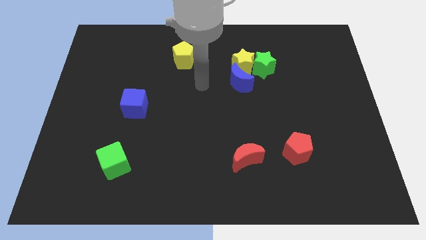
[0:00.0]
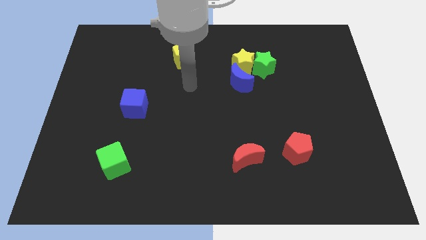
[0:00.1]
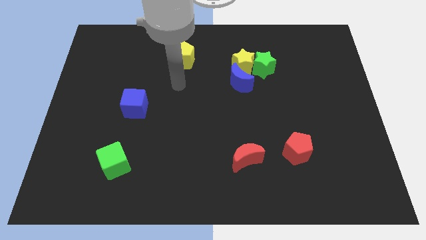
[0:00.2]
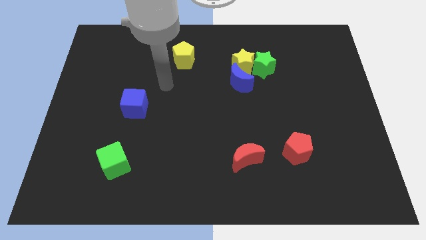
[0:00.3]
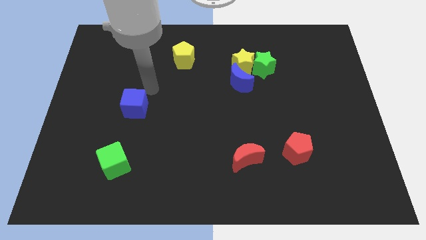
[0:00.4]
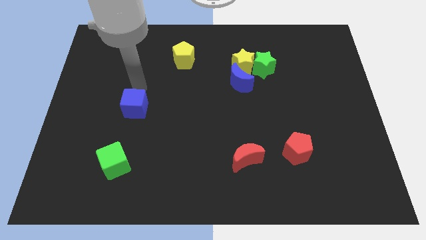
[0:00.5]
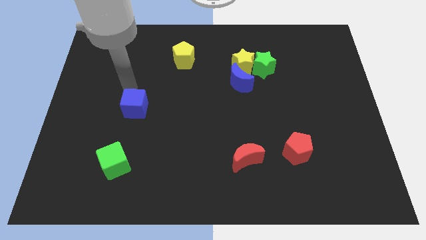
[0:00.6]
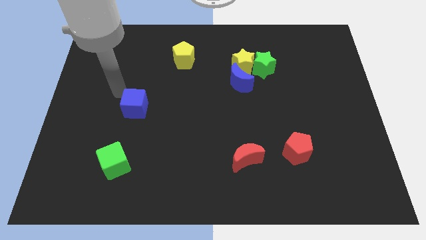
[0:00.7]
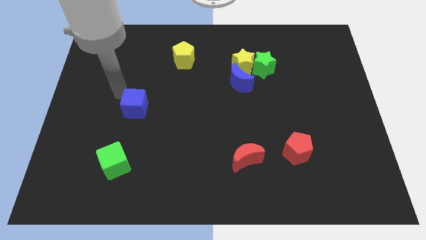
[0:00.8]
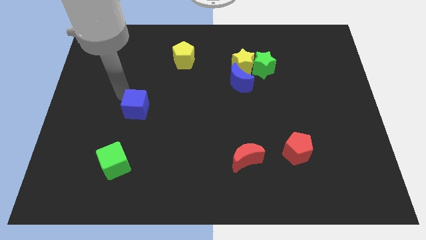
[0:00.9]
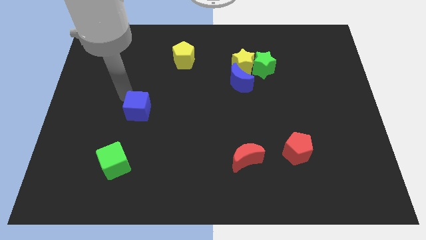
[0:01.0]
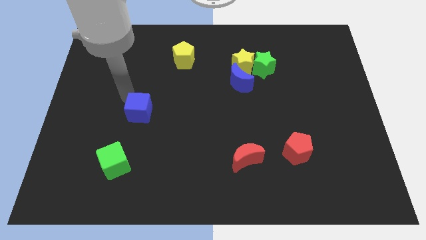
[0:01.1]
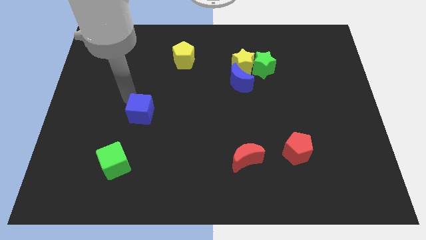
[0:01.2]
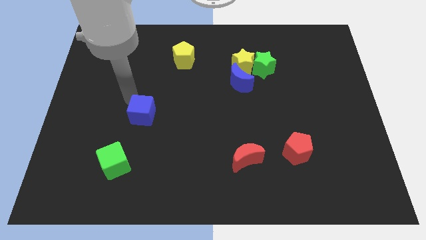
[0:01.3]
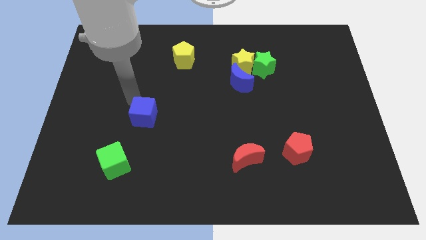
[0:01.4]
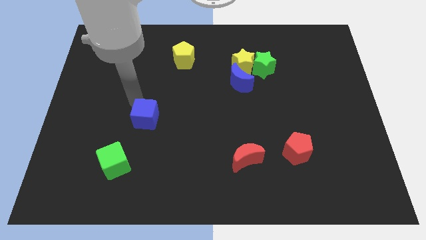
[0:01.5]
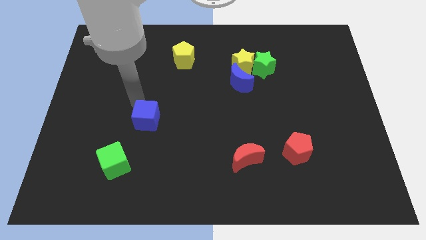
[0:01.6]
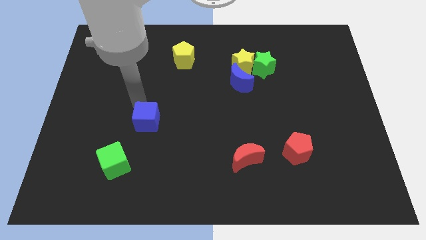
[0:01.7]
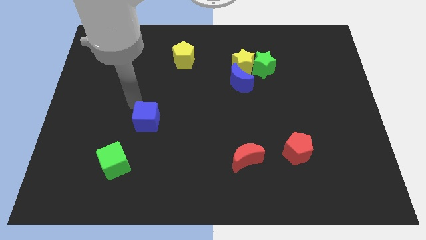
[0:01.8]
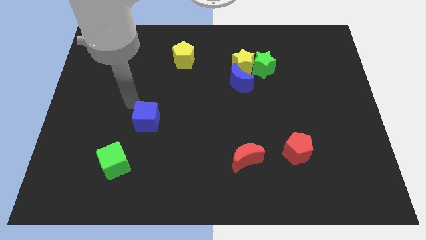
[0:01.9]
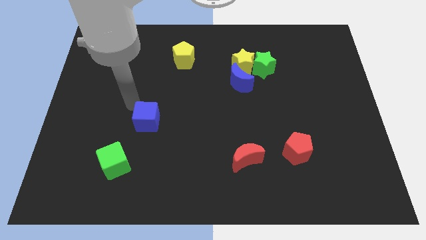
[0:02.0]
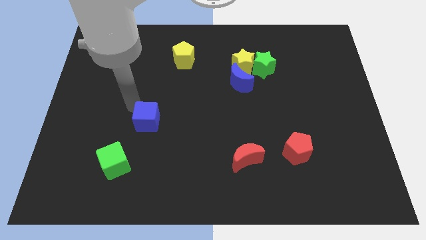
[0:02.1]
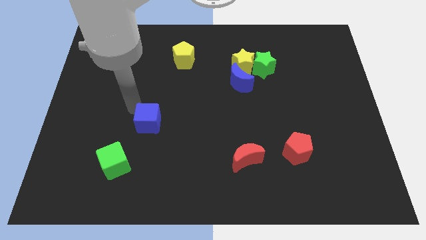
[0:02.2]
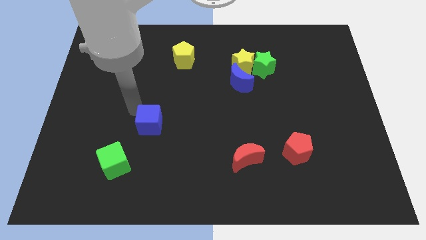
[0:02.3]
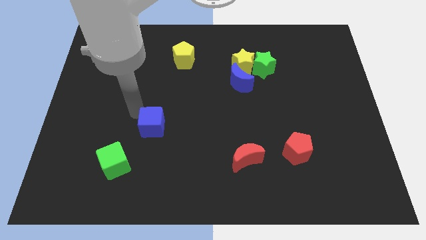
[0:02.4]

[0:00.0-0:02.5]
push the blue cube a bit downwards and right

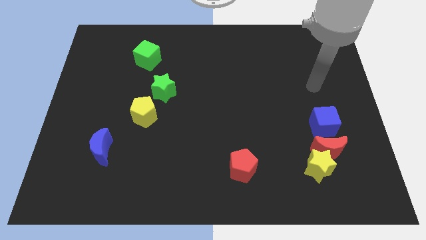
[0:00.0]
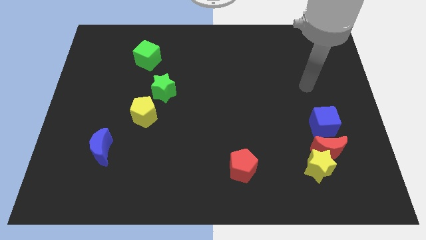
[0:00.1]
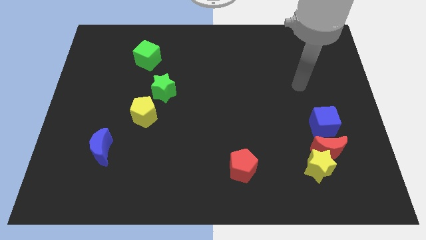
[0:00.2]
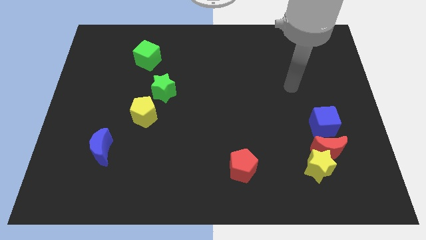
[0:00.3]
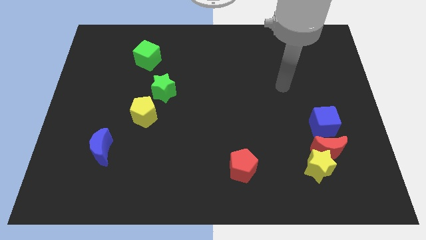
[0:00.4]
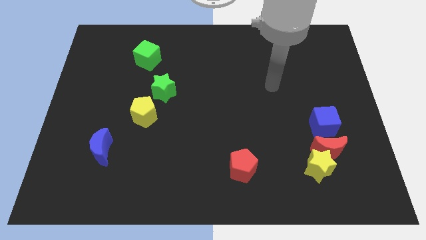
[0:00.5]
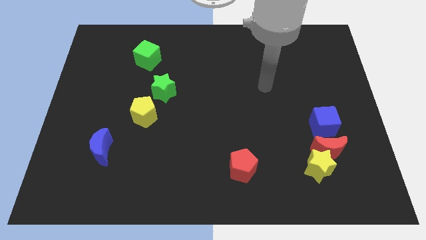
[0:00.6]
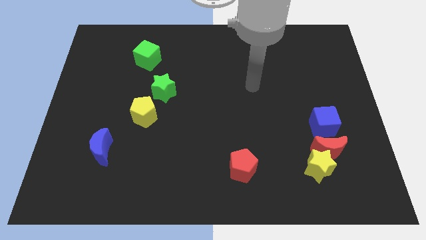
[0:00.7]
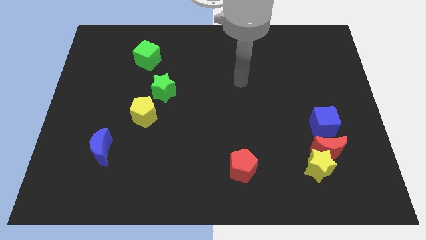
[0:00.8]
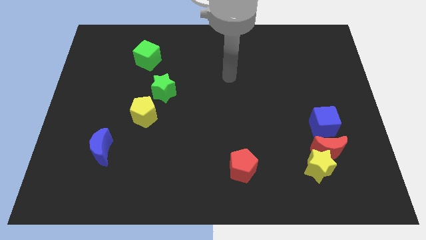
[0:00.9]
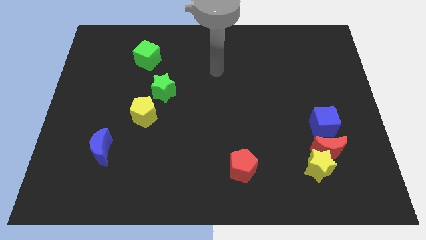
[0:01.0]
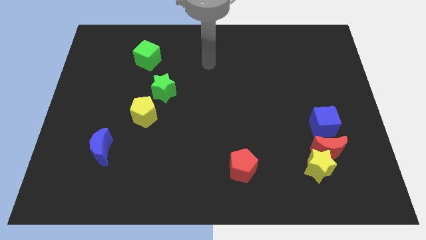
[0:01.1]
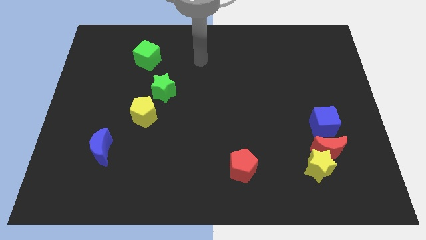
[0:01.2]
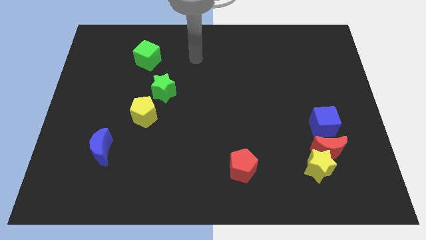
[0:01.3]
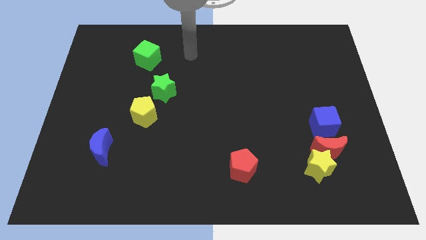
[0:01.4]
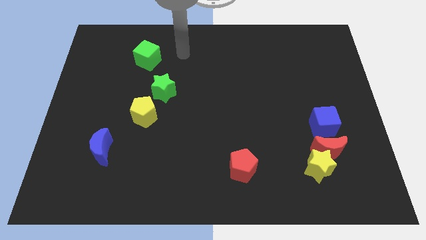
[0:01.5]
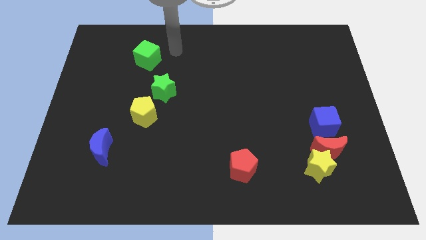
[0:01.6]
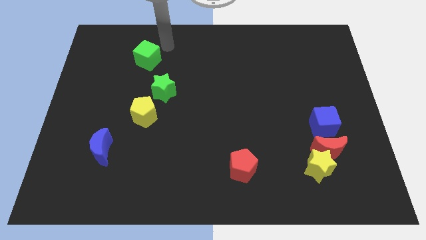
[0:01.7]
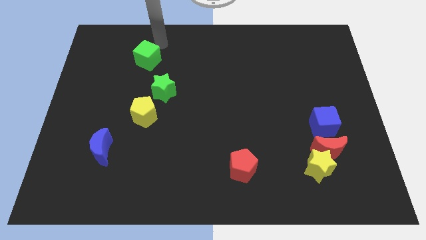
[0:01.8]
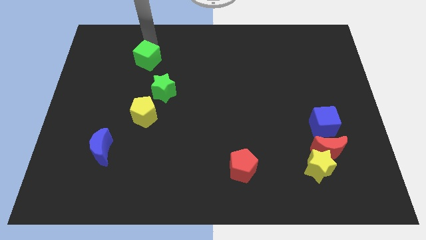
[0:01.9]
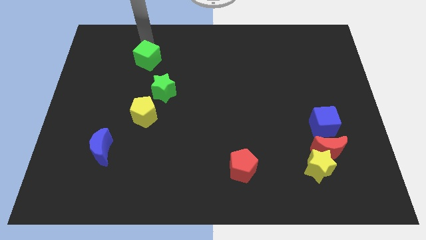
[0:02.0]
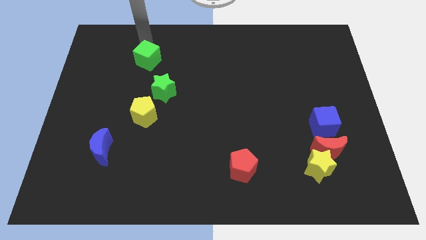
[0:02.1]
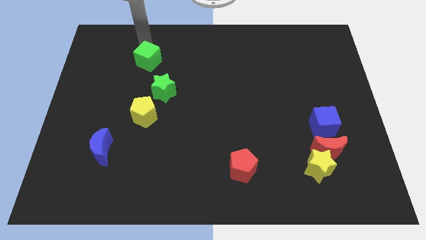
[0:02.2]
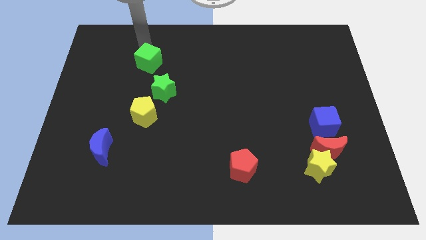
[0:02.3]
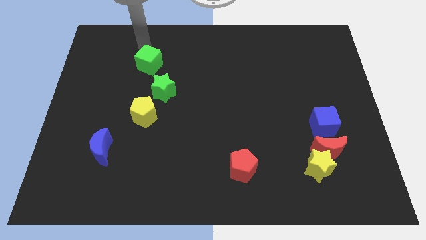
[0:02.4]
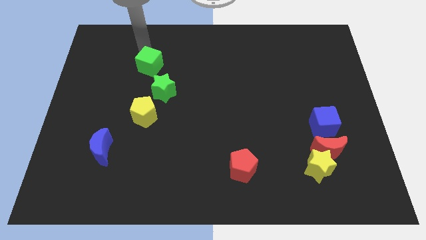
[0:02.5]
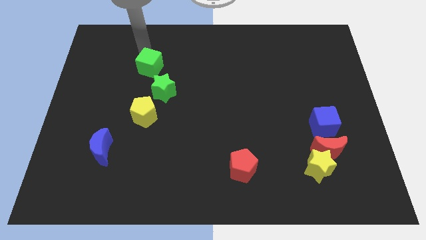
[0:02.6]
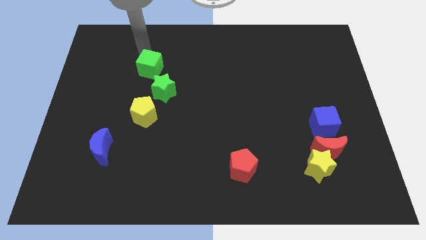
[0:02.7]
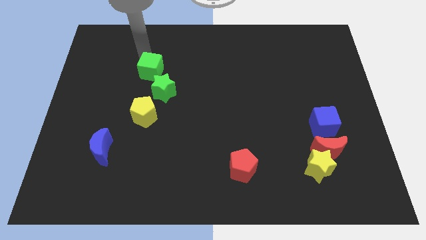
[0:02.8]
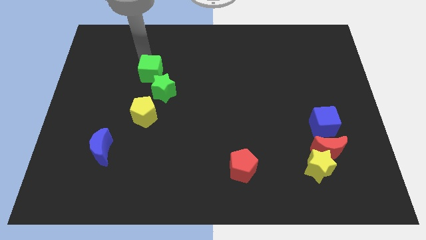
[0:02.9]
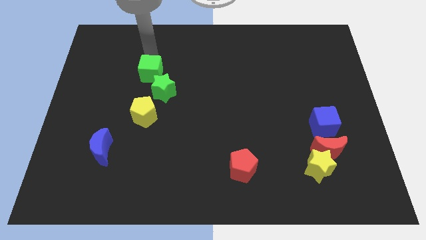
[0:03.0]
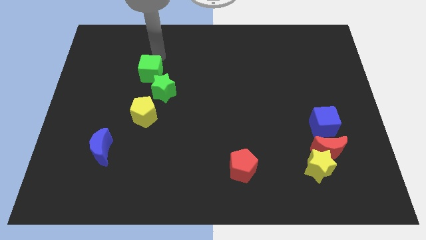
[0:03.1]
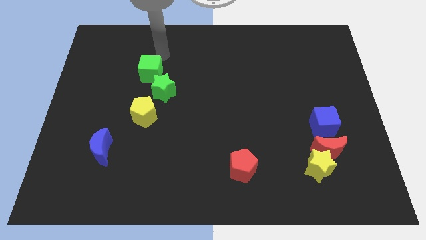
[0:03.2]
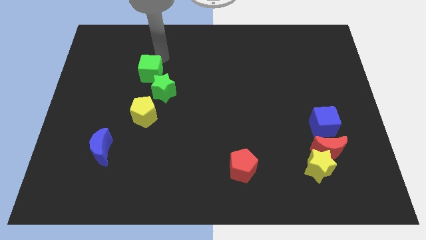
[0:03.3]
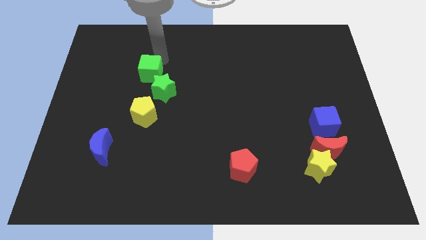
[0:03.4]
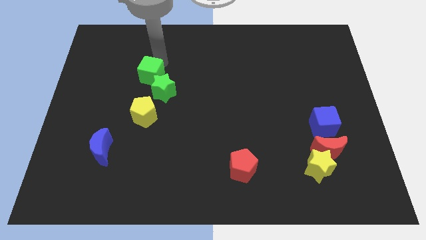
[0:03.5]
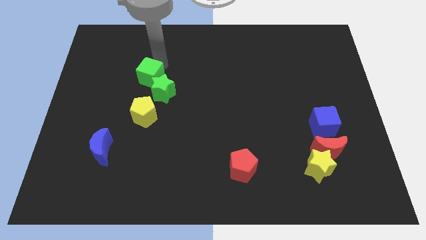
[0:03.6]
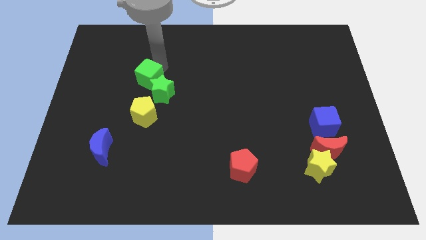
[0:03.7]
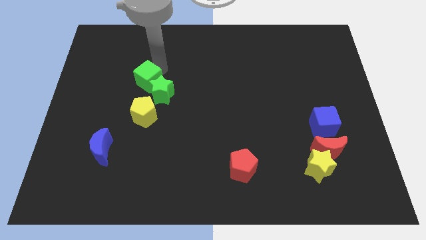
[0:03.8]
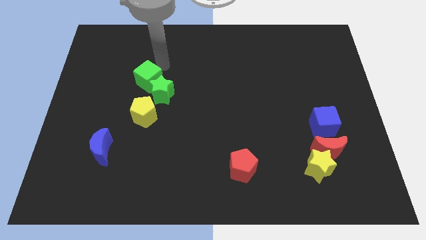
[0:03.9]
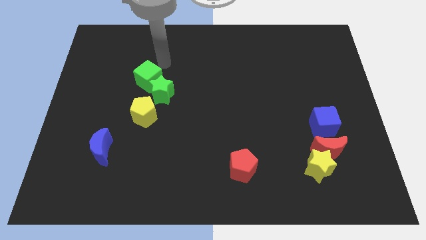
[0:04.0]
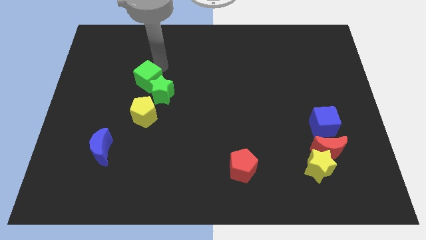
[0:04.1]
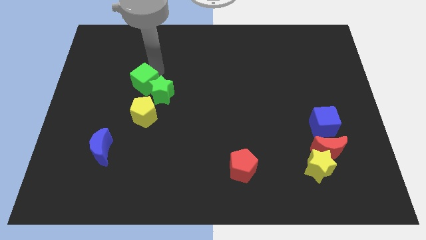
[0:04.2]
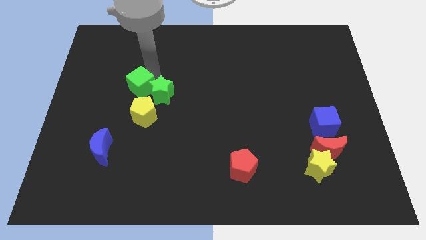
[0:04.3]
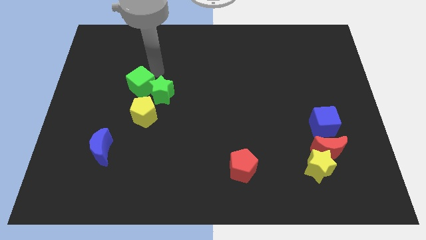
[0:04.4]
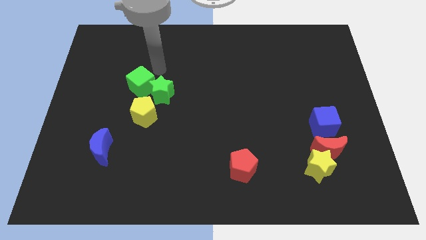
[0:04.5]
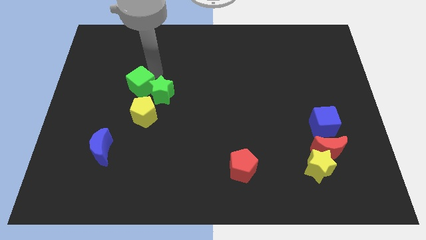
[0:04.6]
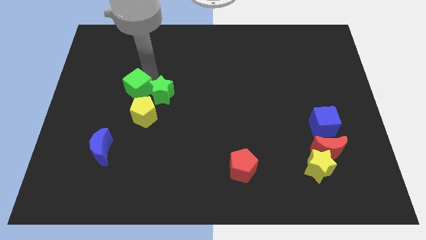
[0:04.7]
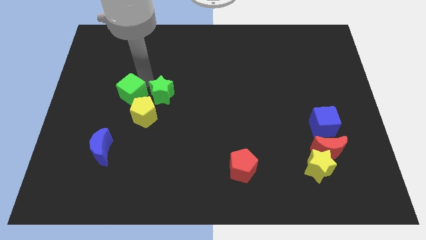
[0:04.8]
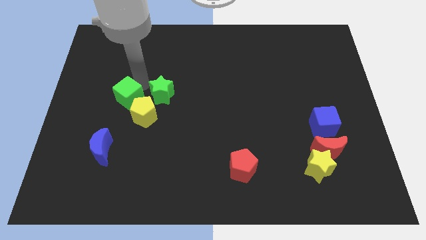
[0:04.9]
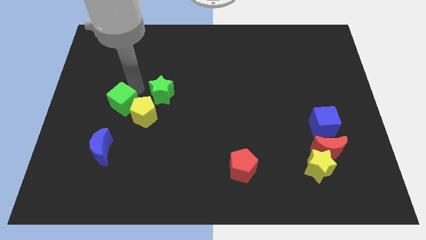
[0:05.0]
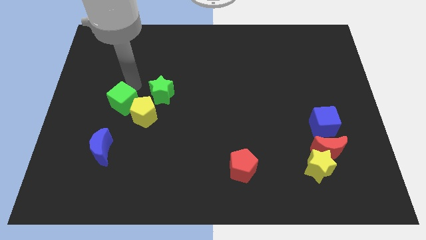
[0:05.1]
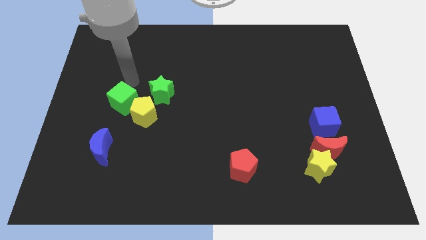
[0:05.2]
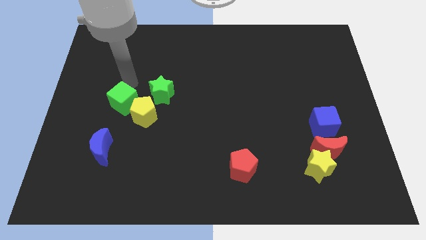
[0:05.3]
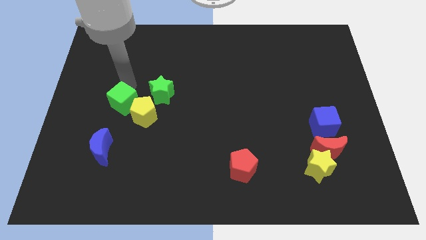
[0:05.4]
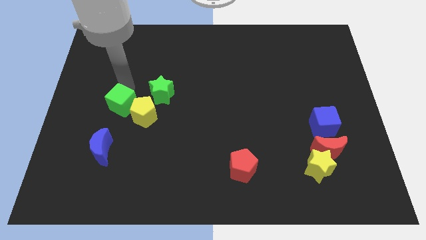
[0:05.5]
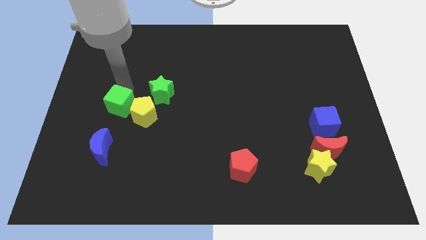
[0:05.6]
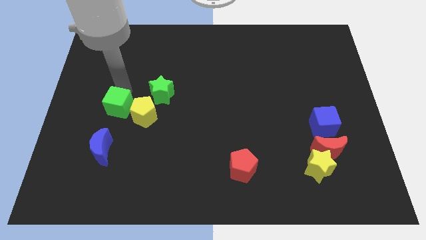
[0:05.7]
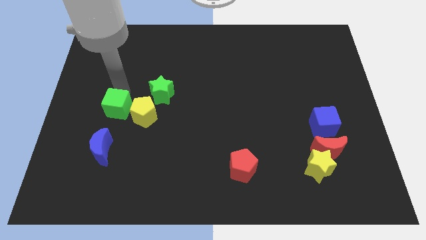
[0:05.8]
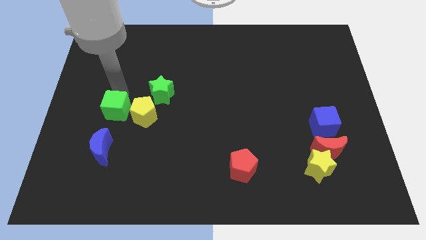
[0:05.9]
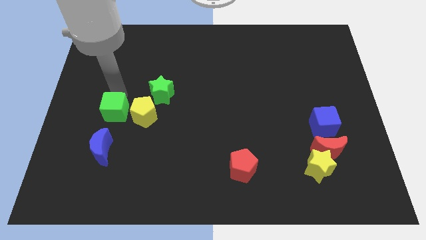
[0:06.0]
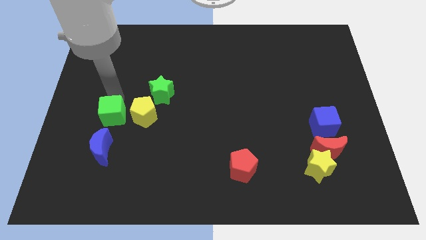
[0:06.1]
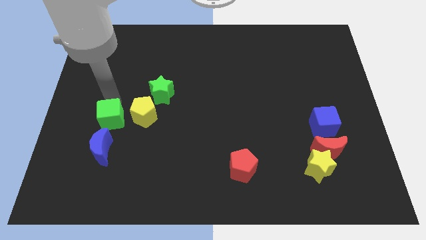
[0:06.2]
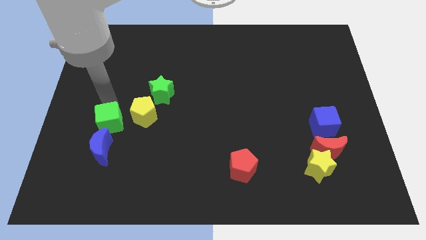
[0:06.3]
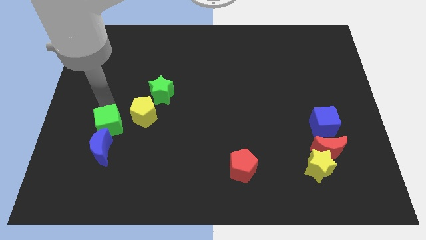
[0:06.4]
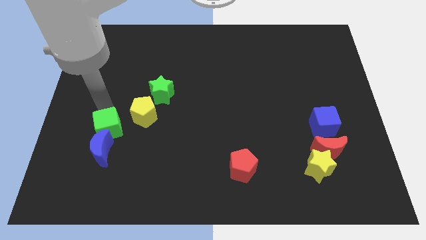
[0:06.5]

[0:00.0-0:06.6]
slide the green cube downwards
